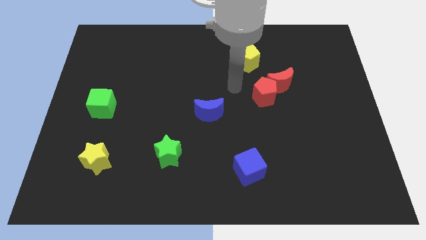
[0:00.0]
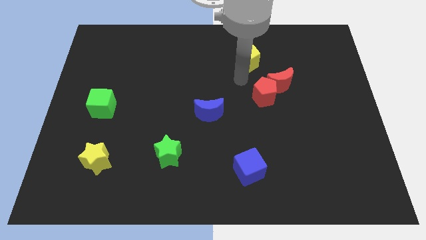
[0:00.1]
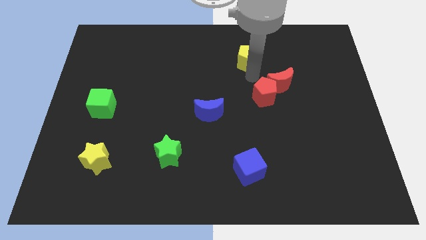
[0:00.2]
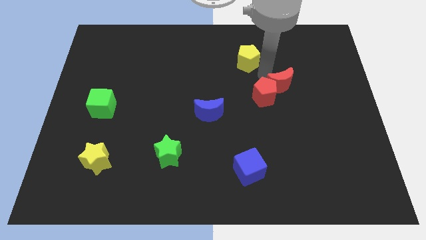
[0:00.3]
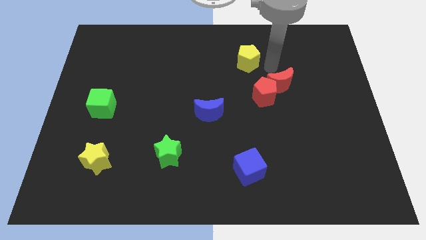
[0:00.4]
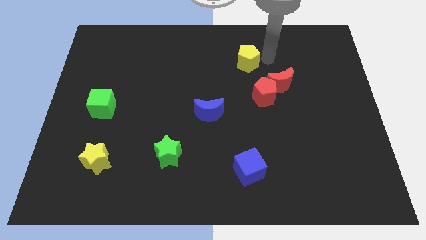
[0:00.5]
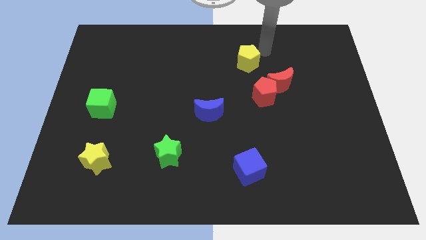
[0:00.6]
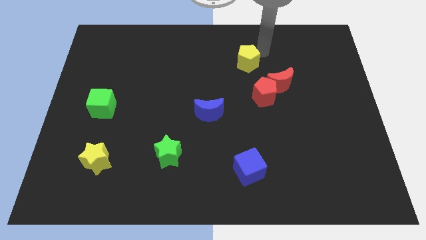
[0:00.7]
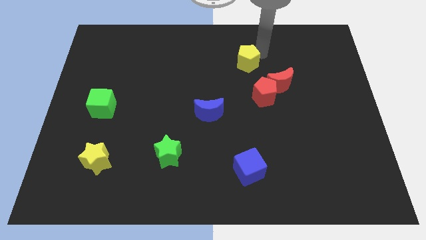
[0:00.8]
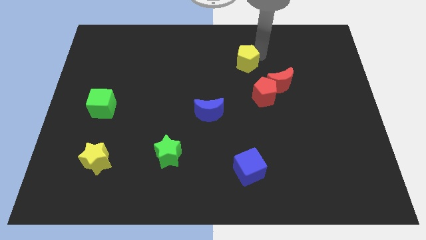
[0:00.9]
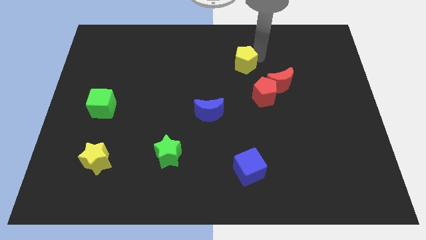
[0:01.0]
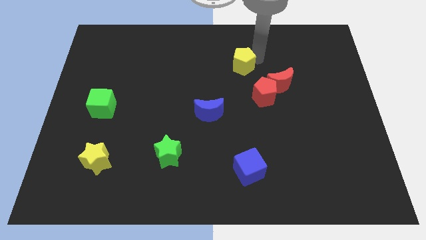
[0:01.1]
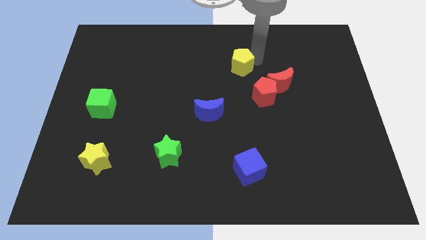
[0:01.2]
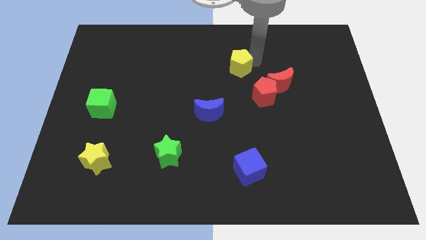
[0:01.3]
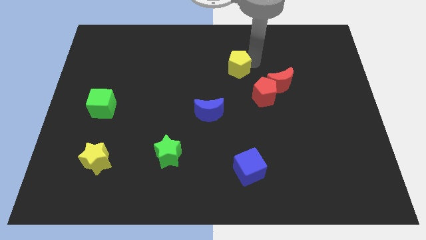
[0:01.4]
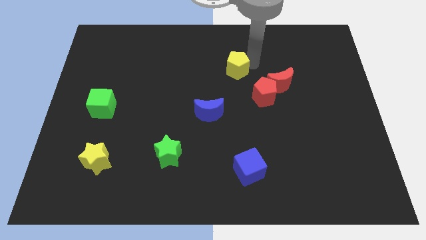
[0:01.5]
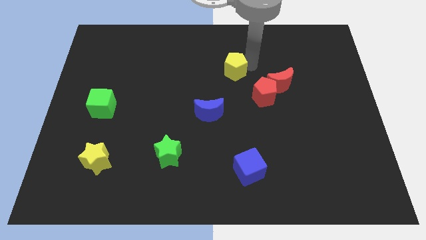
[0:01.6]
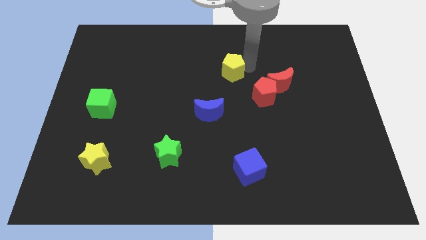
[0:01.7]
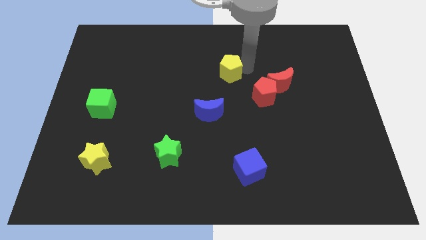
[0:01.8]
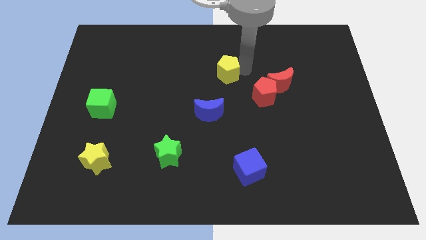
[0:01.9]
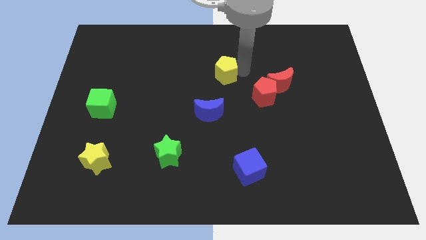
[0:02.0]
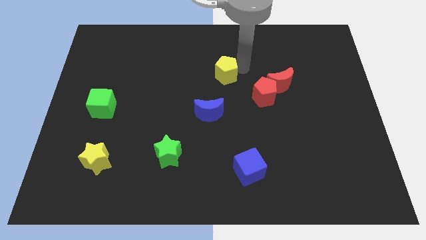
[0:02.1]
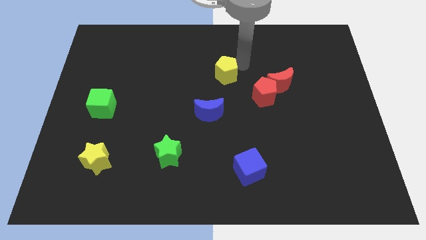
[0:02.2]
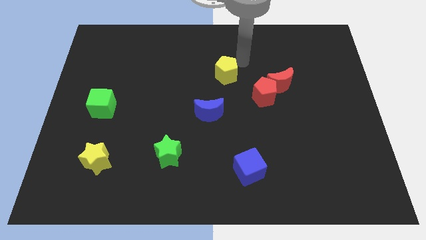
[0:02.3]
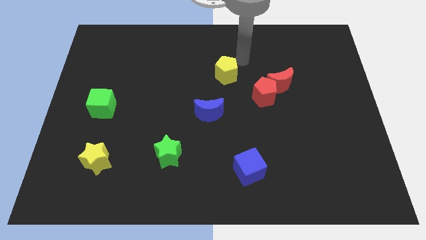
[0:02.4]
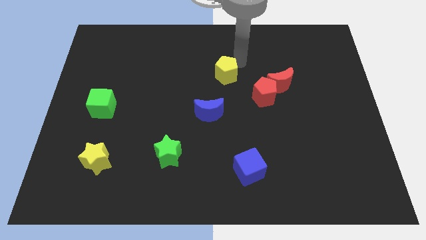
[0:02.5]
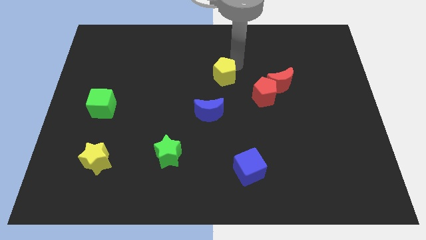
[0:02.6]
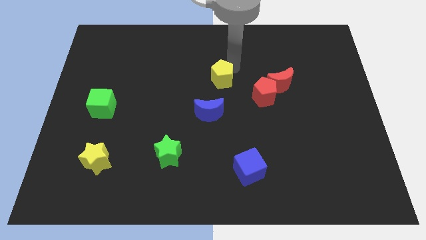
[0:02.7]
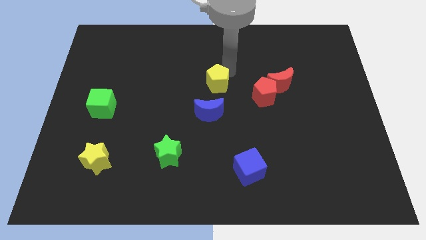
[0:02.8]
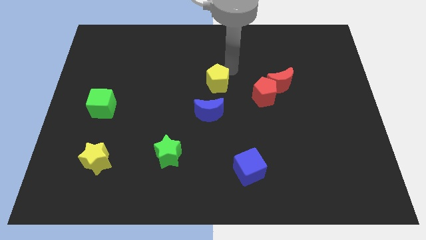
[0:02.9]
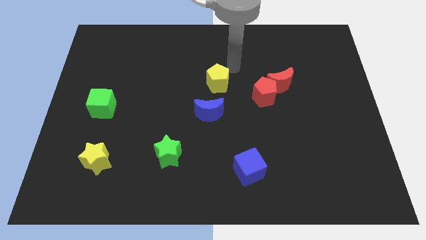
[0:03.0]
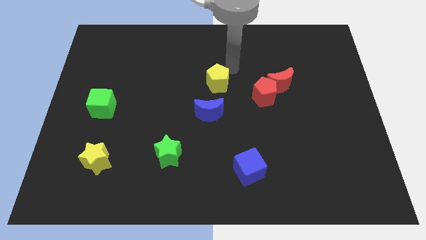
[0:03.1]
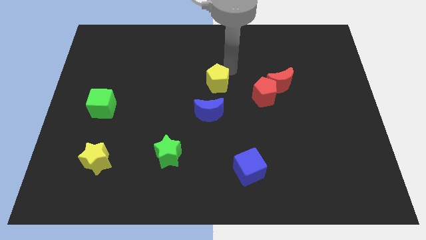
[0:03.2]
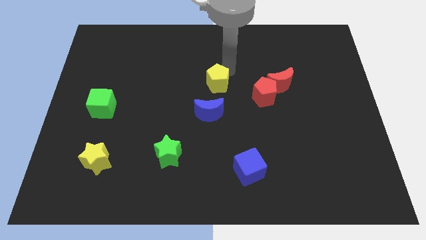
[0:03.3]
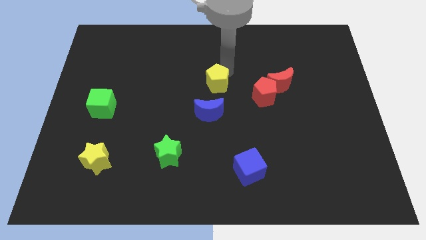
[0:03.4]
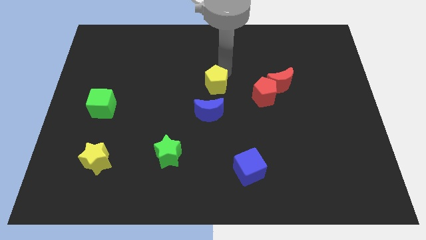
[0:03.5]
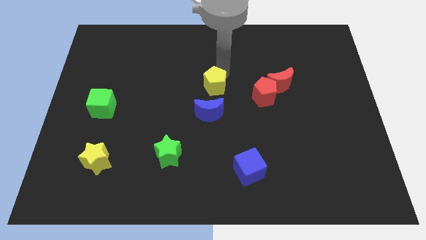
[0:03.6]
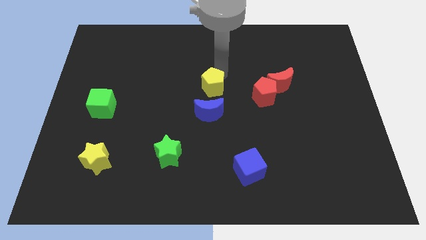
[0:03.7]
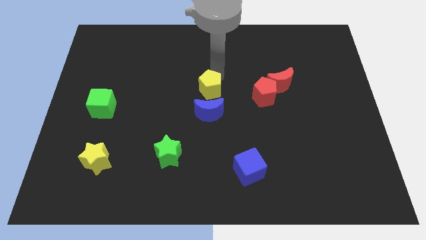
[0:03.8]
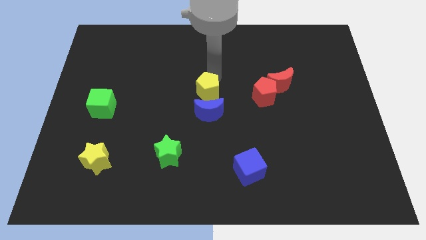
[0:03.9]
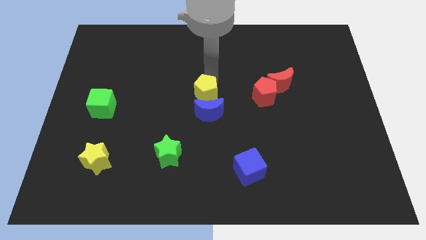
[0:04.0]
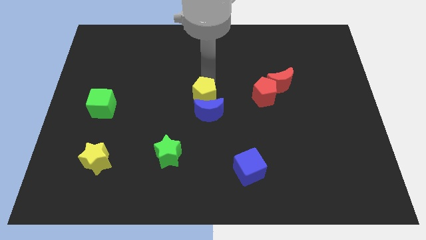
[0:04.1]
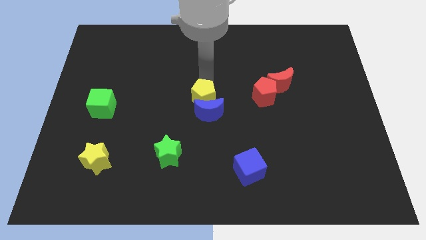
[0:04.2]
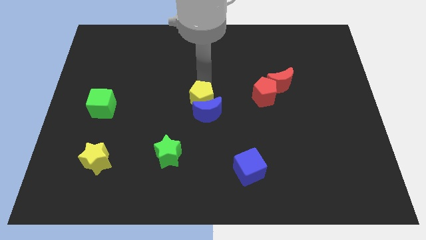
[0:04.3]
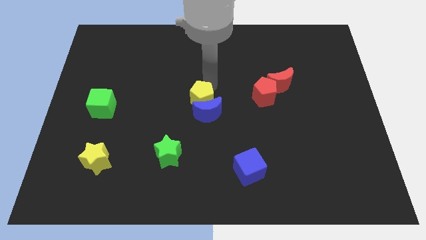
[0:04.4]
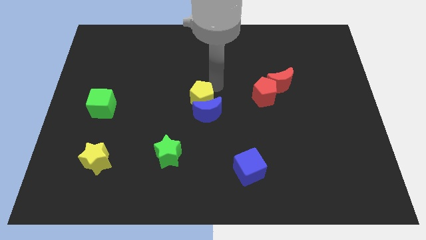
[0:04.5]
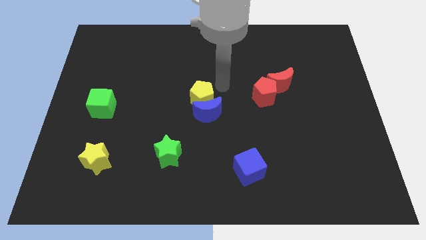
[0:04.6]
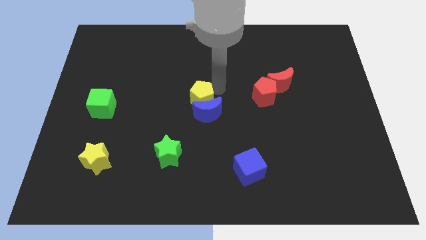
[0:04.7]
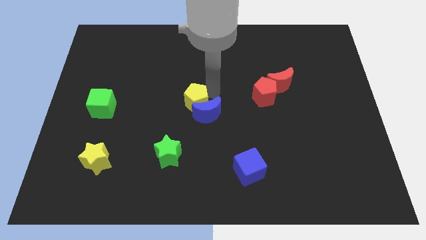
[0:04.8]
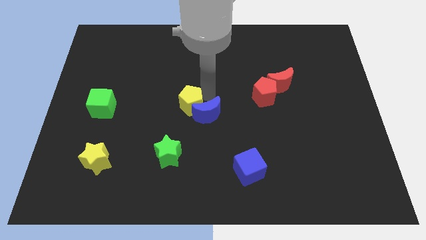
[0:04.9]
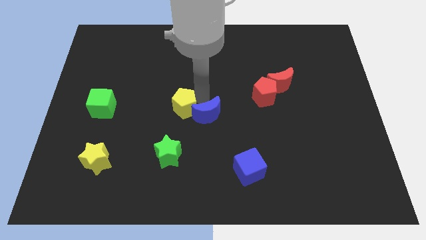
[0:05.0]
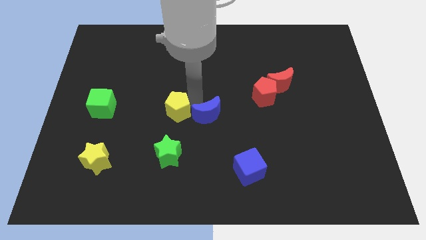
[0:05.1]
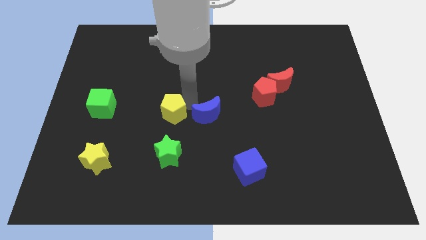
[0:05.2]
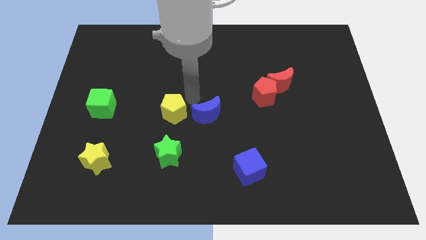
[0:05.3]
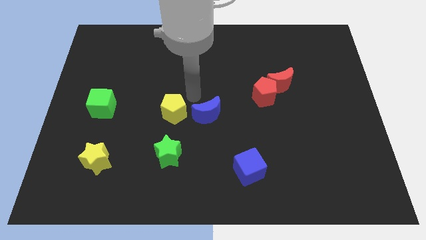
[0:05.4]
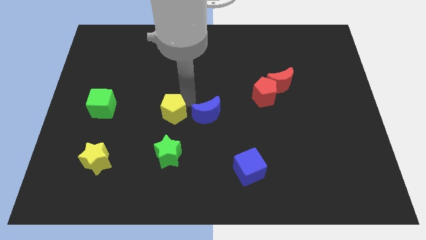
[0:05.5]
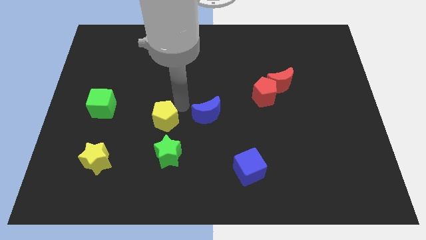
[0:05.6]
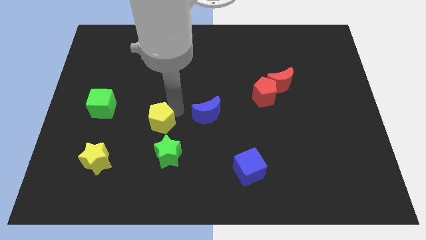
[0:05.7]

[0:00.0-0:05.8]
move the yellow pentagon to the top left of the green star

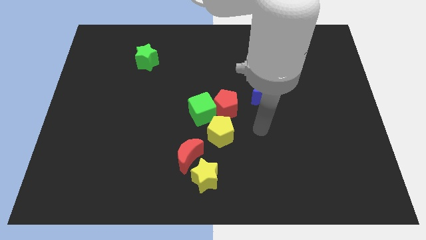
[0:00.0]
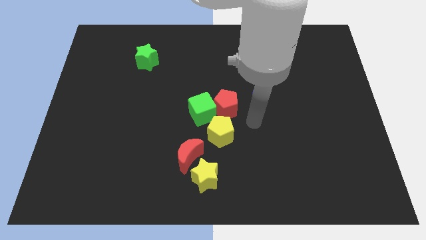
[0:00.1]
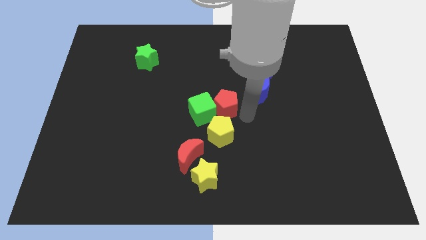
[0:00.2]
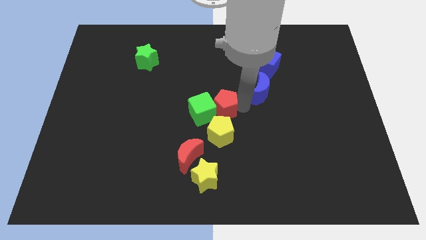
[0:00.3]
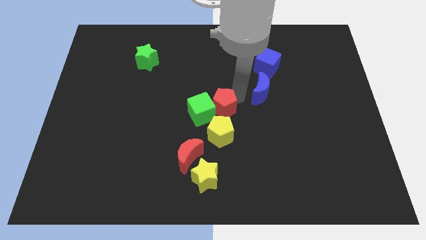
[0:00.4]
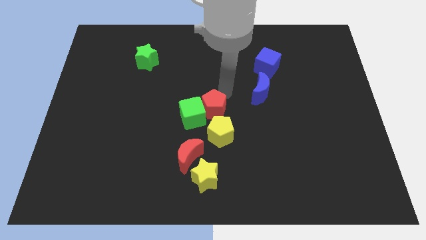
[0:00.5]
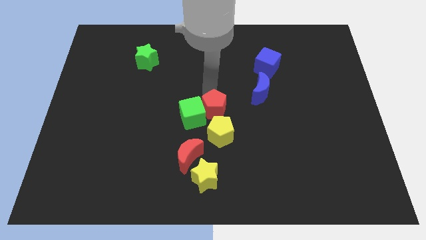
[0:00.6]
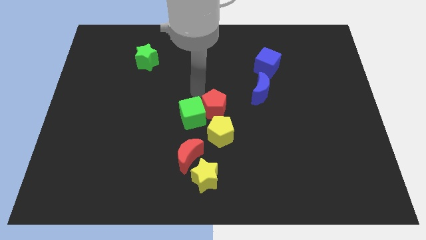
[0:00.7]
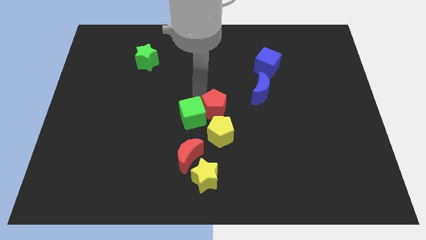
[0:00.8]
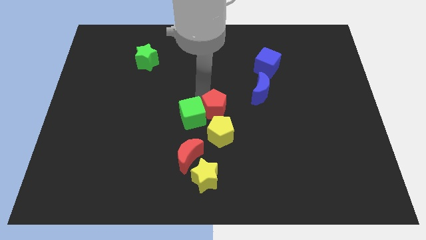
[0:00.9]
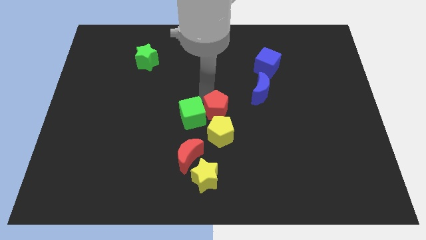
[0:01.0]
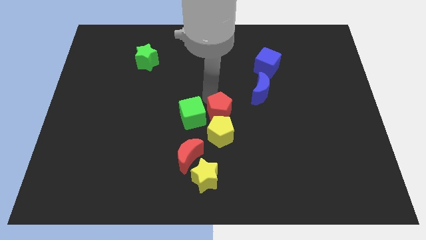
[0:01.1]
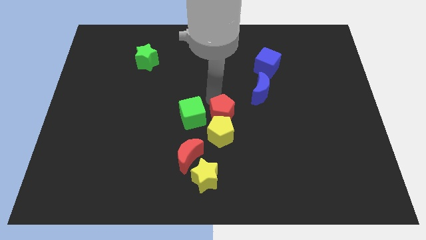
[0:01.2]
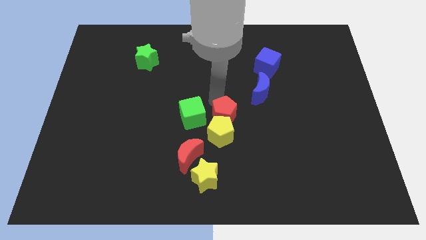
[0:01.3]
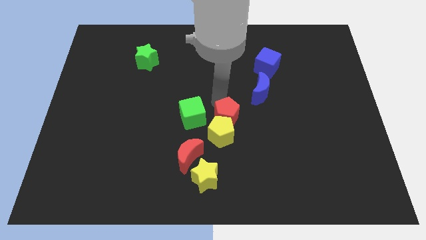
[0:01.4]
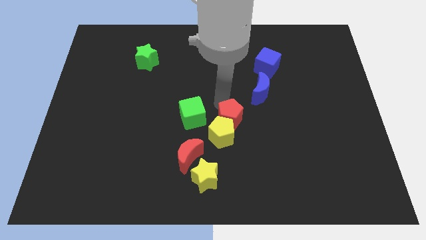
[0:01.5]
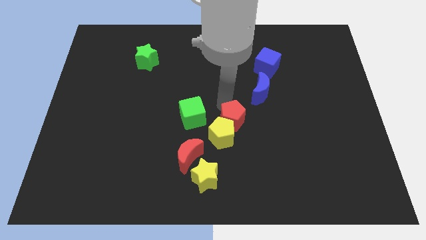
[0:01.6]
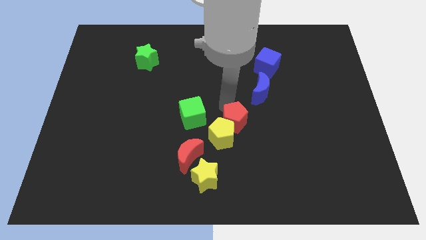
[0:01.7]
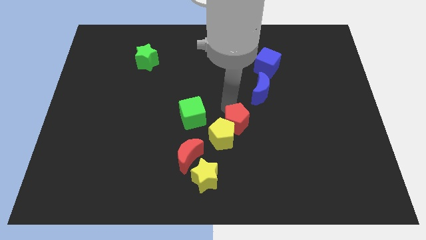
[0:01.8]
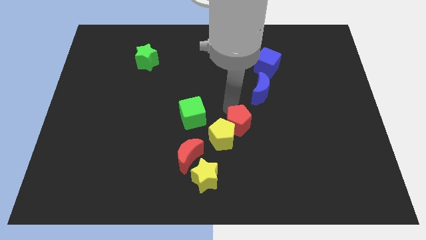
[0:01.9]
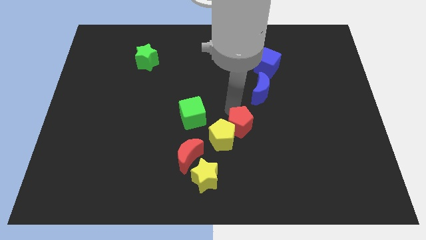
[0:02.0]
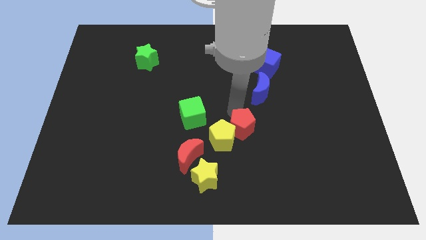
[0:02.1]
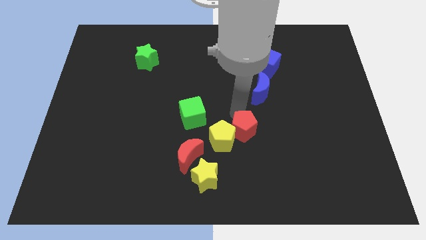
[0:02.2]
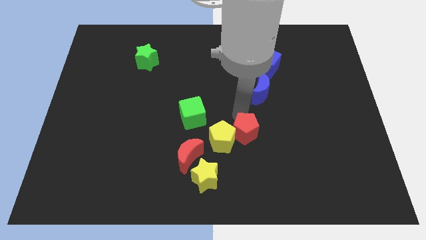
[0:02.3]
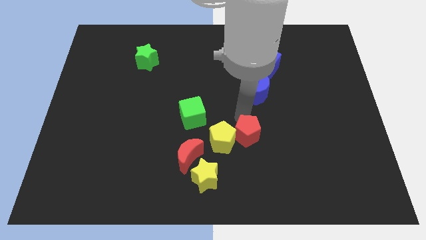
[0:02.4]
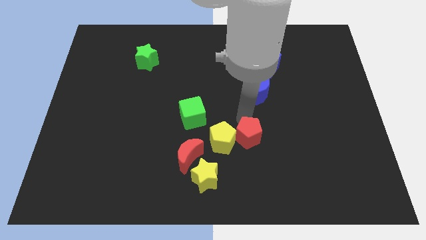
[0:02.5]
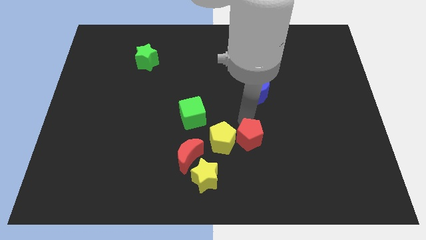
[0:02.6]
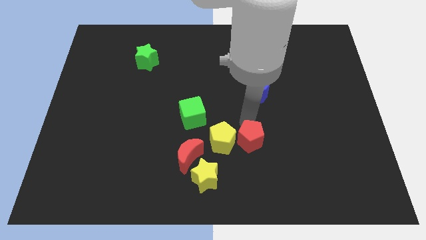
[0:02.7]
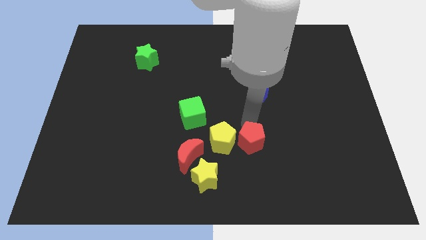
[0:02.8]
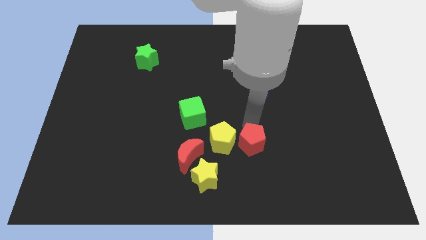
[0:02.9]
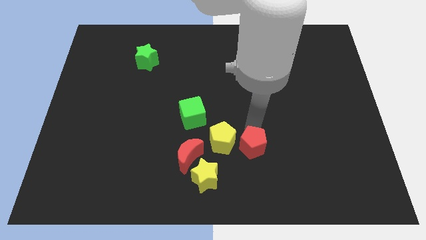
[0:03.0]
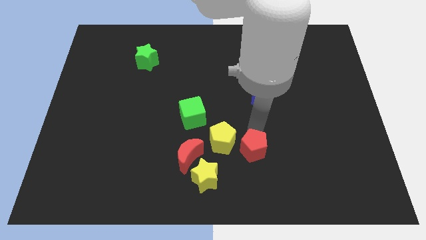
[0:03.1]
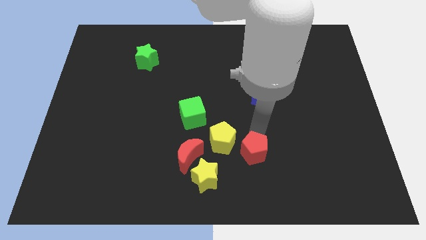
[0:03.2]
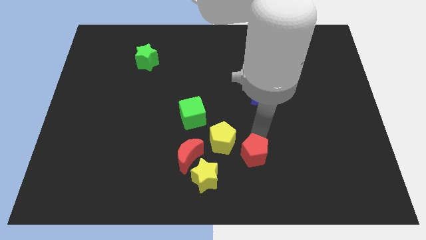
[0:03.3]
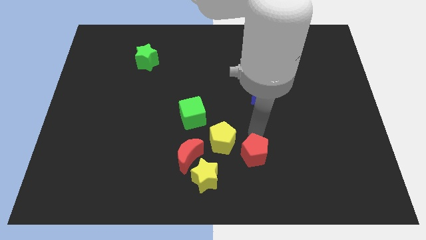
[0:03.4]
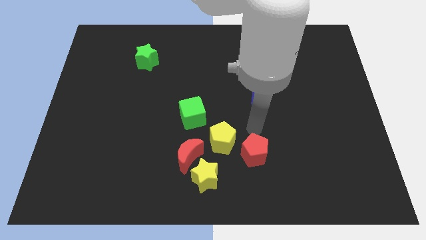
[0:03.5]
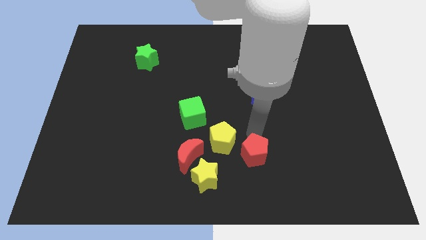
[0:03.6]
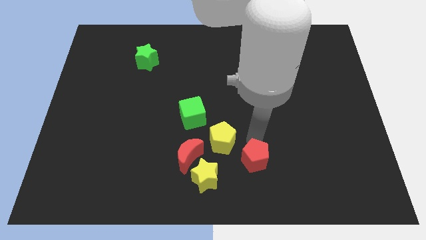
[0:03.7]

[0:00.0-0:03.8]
move the red pentagon to the right side of the yellow star
